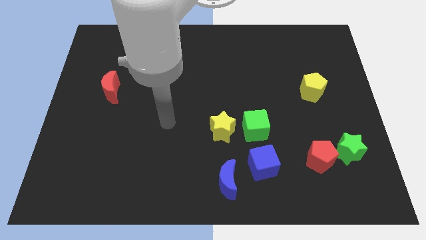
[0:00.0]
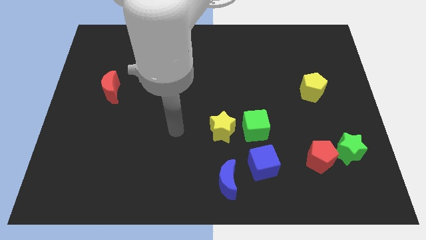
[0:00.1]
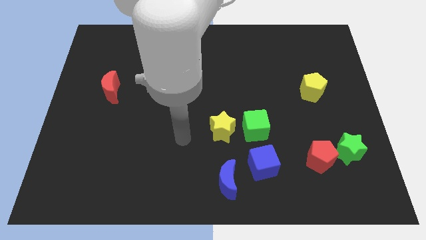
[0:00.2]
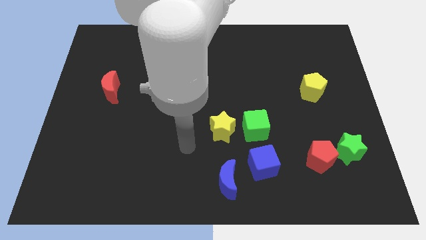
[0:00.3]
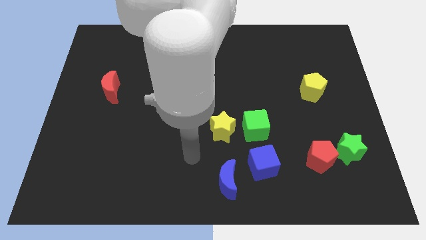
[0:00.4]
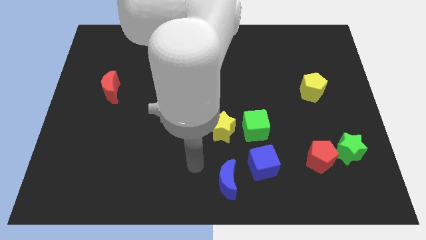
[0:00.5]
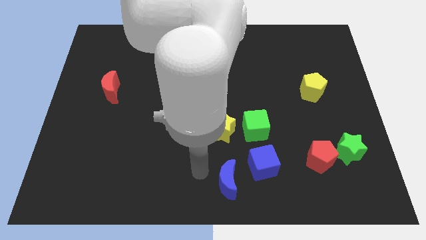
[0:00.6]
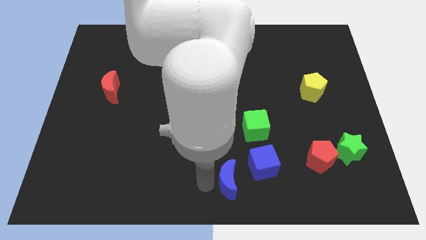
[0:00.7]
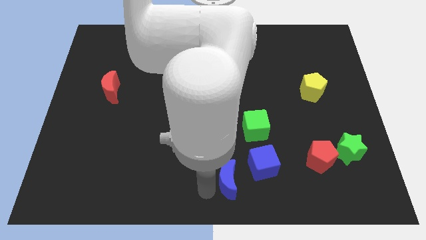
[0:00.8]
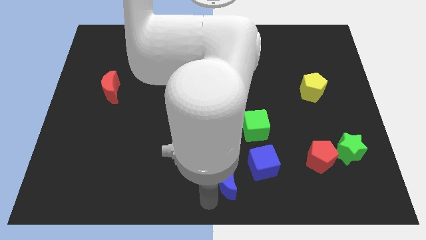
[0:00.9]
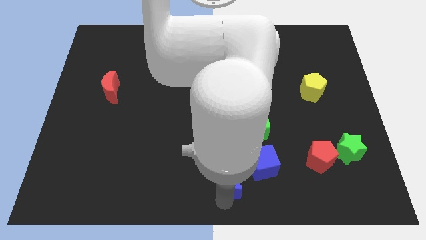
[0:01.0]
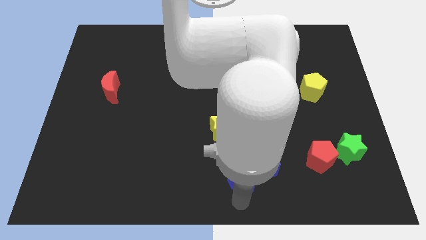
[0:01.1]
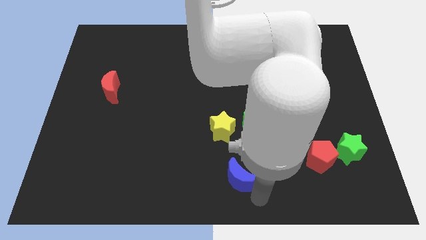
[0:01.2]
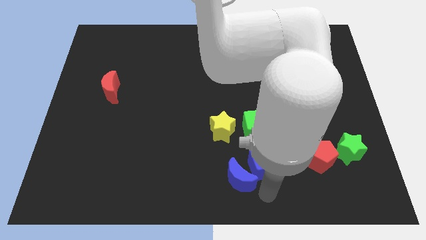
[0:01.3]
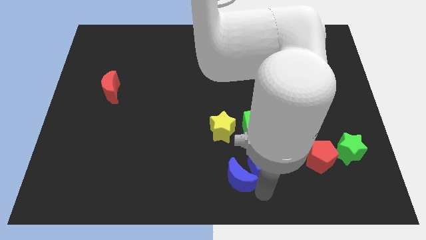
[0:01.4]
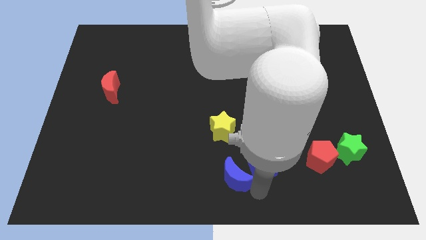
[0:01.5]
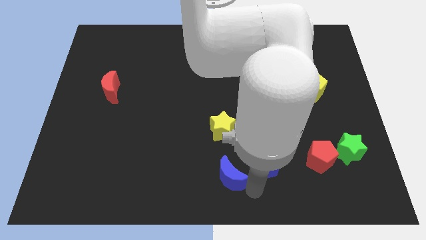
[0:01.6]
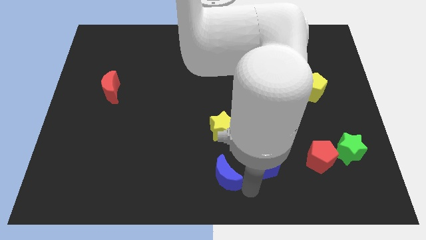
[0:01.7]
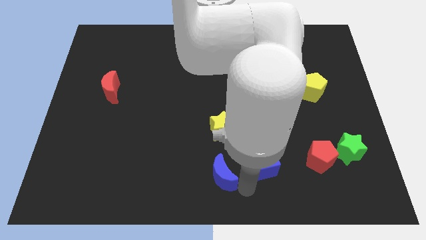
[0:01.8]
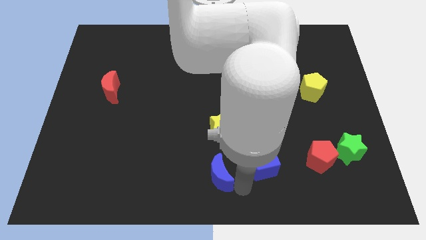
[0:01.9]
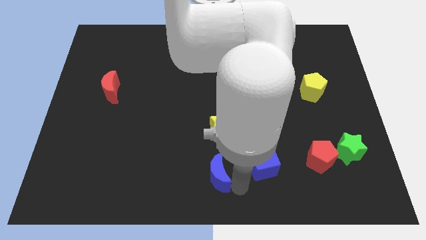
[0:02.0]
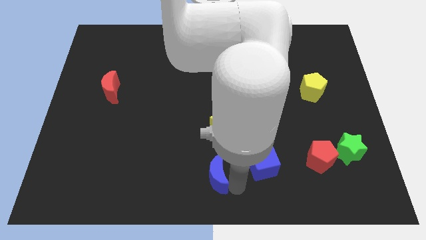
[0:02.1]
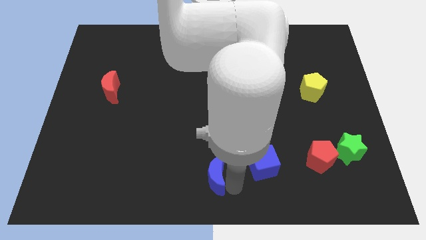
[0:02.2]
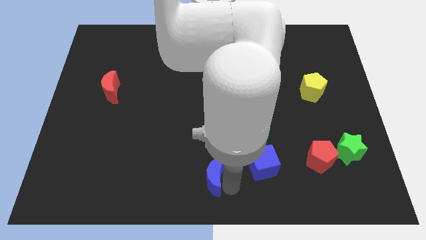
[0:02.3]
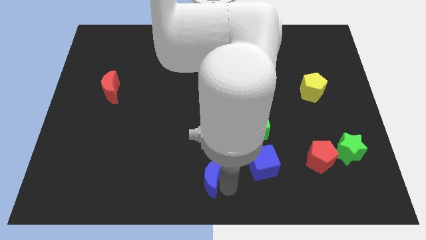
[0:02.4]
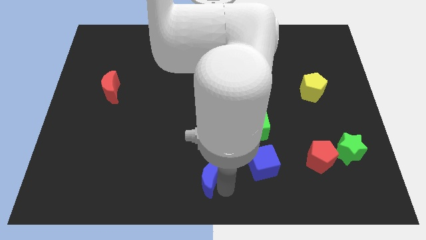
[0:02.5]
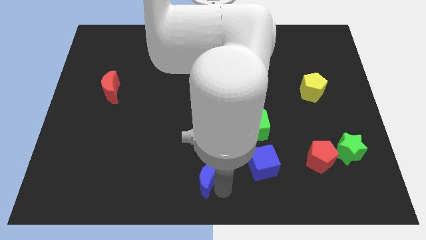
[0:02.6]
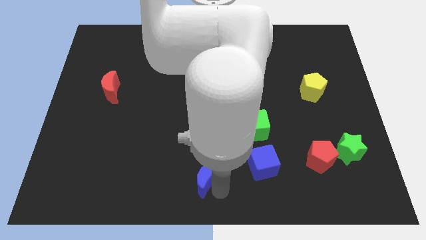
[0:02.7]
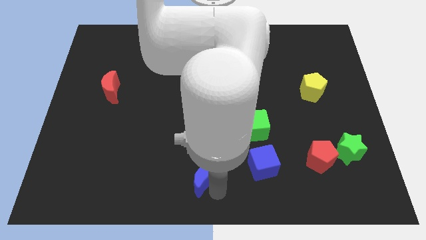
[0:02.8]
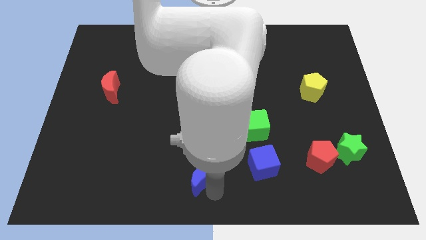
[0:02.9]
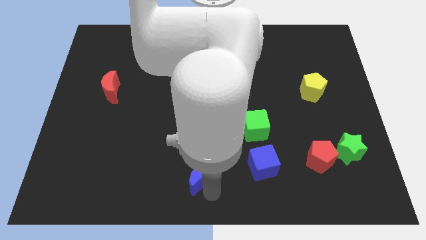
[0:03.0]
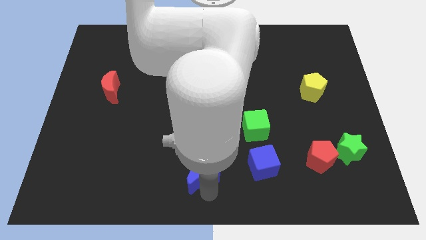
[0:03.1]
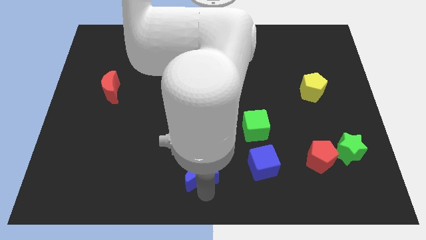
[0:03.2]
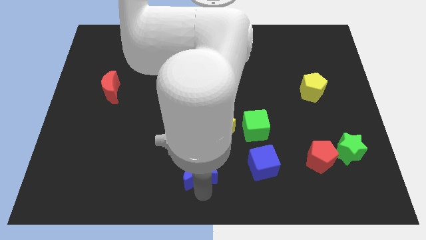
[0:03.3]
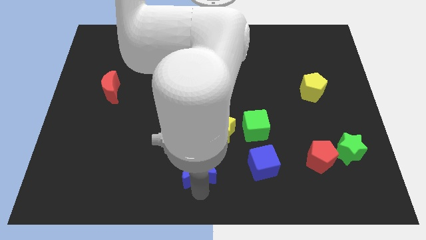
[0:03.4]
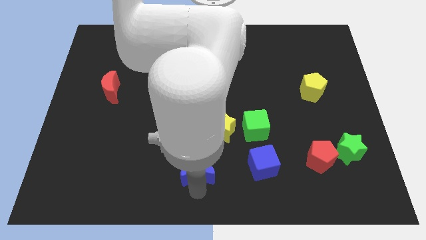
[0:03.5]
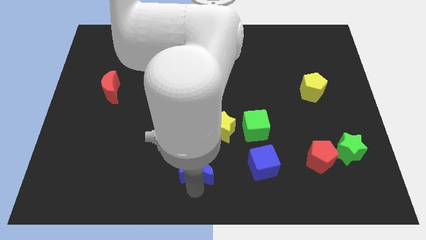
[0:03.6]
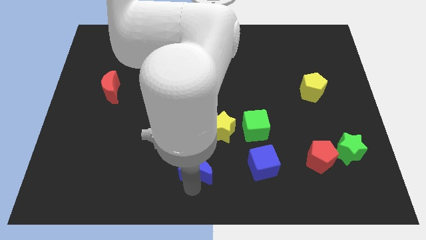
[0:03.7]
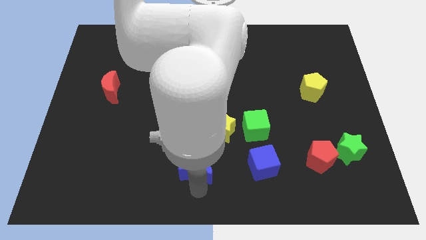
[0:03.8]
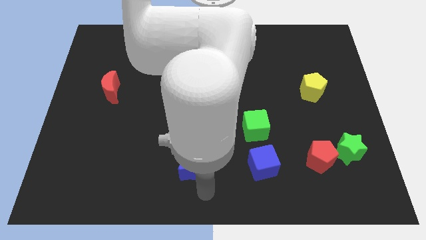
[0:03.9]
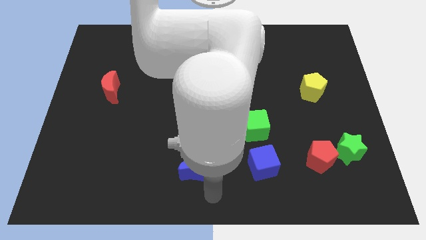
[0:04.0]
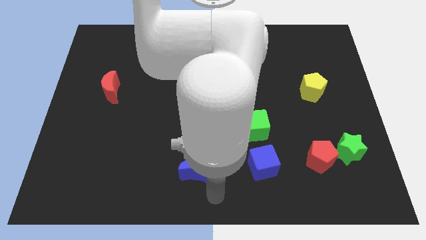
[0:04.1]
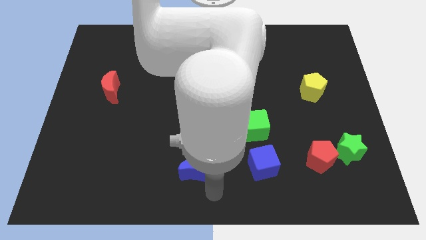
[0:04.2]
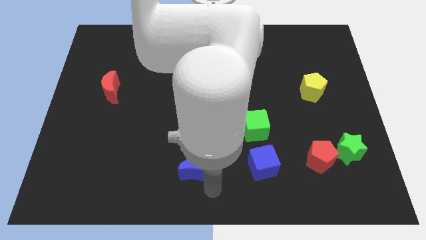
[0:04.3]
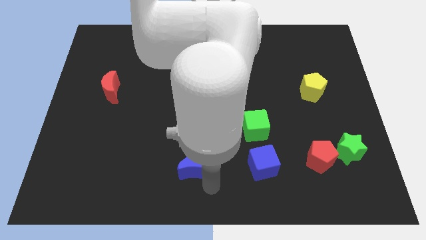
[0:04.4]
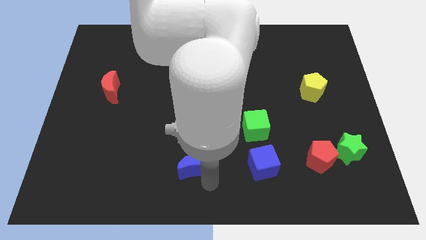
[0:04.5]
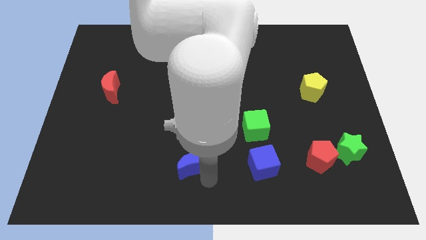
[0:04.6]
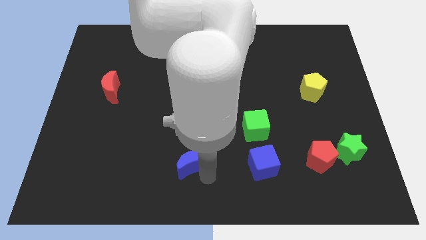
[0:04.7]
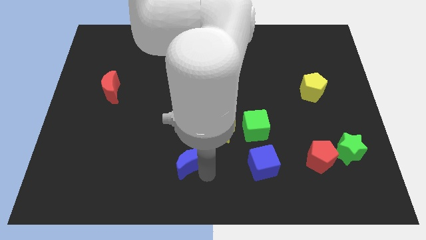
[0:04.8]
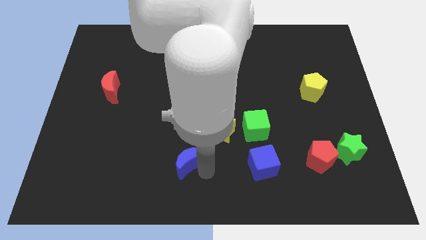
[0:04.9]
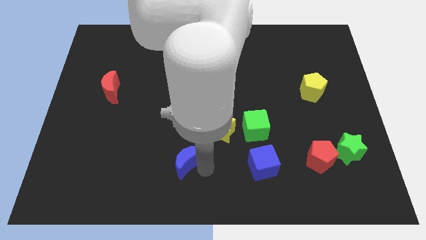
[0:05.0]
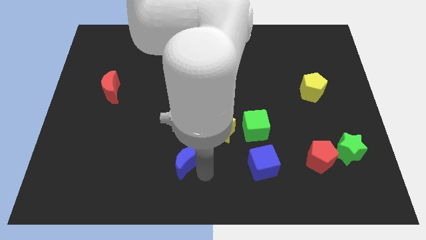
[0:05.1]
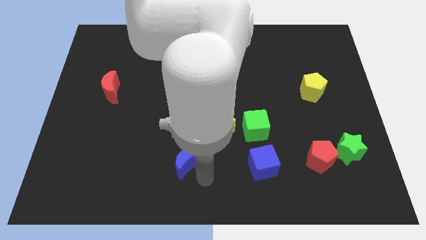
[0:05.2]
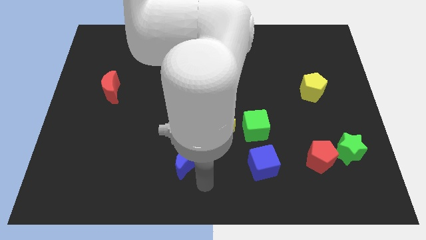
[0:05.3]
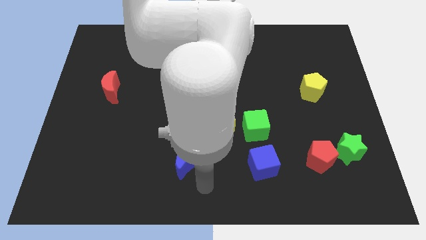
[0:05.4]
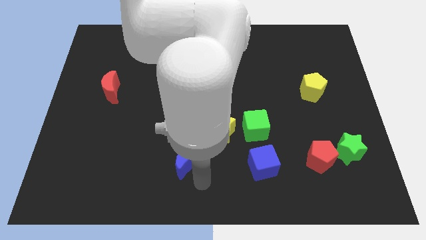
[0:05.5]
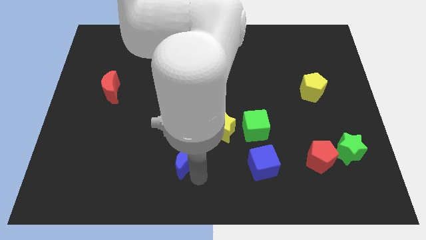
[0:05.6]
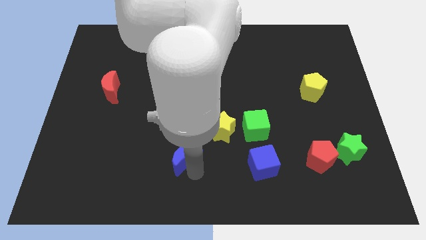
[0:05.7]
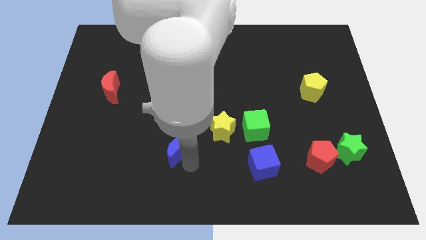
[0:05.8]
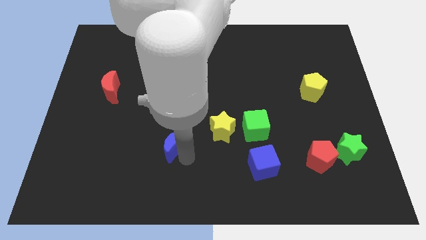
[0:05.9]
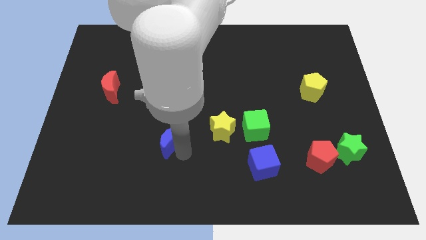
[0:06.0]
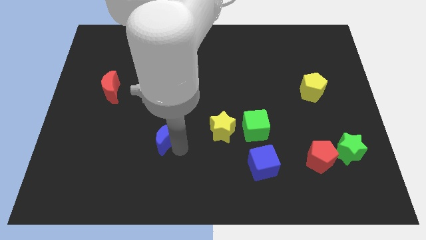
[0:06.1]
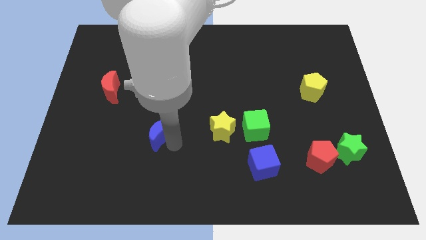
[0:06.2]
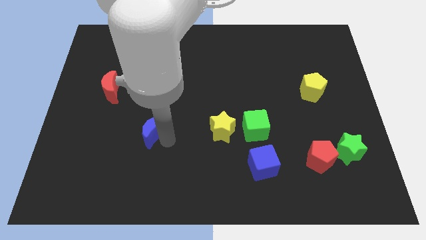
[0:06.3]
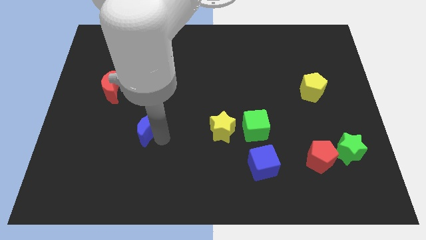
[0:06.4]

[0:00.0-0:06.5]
move the blue moon up and to the left

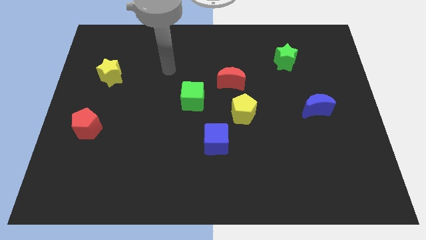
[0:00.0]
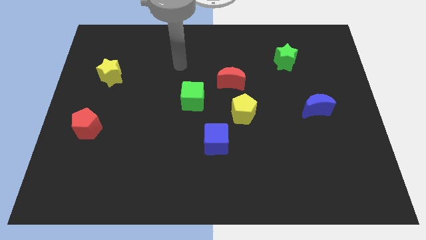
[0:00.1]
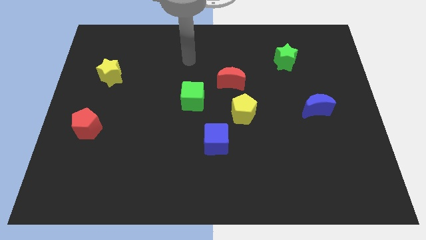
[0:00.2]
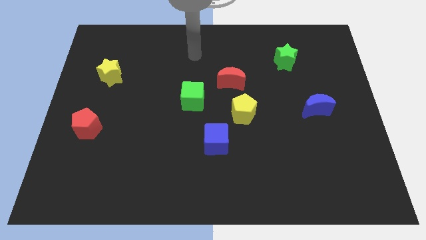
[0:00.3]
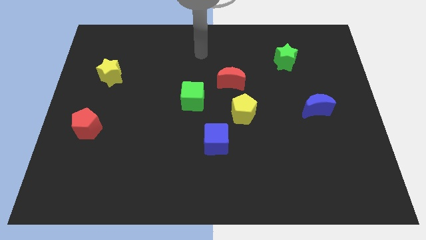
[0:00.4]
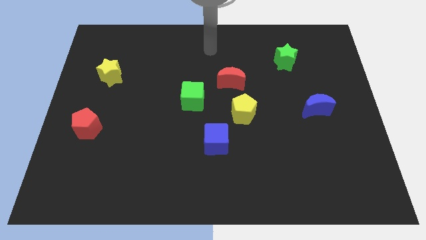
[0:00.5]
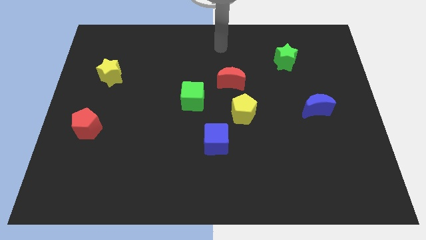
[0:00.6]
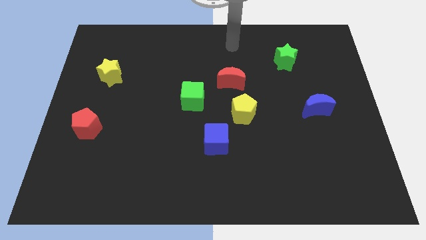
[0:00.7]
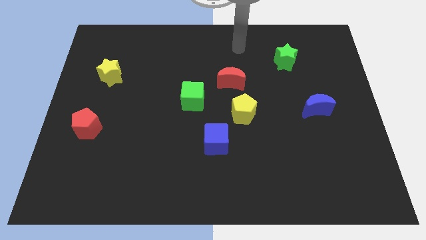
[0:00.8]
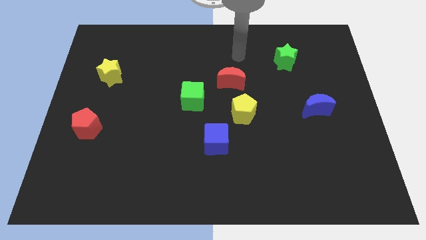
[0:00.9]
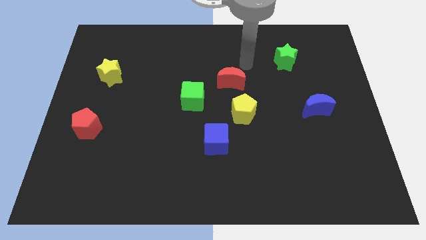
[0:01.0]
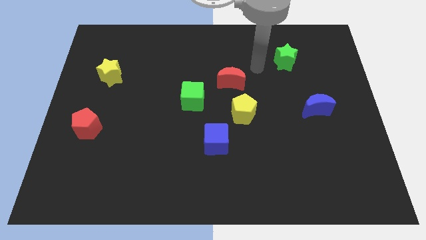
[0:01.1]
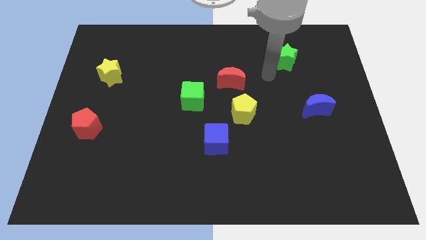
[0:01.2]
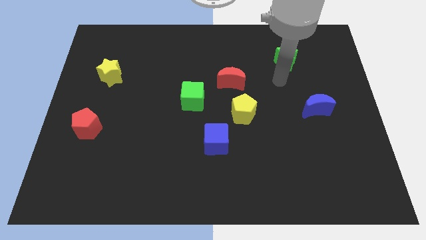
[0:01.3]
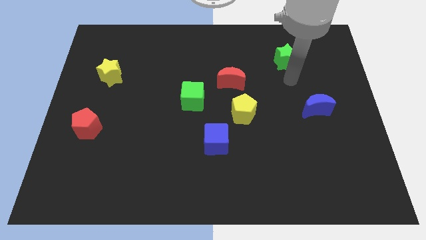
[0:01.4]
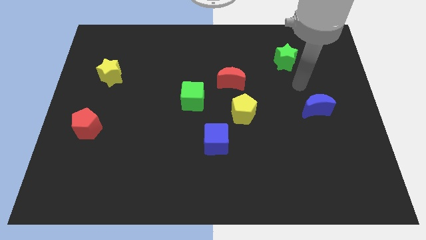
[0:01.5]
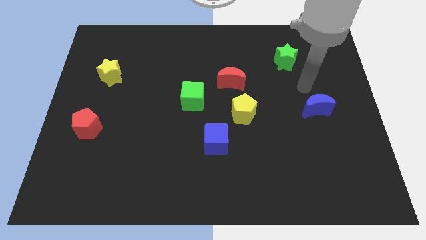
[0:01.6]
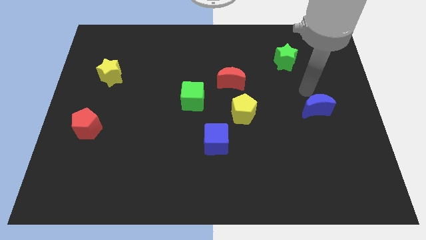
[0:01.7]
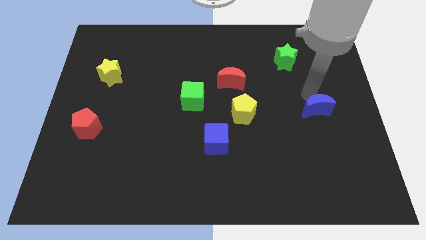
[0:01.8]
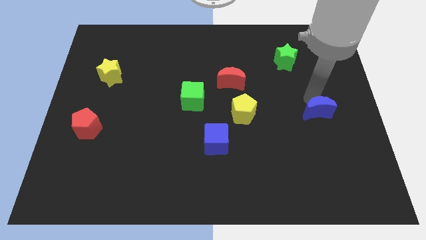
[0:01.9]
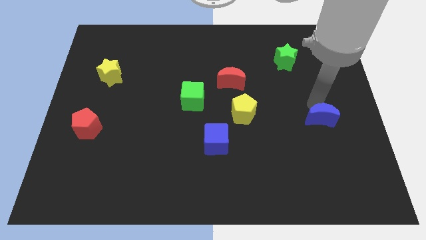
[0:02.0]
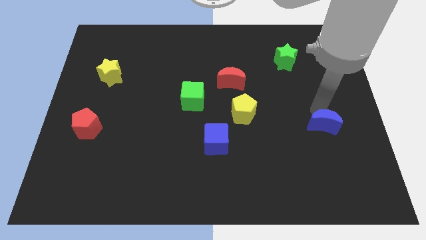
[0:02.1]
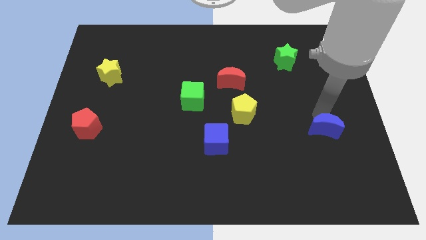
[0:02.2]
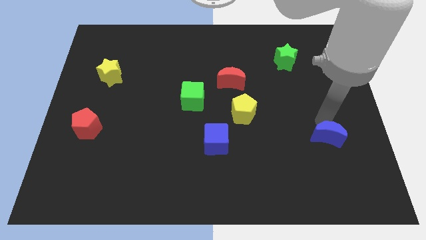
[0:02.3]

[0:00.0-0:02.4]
slide the blue moon downwards a little
